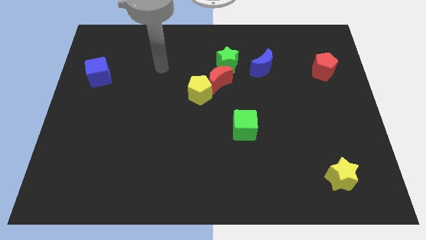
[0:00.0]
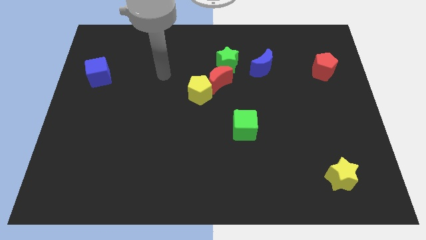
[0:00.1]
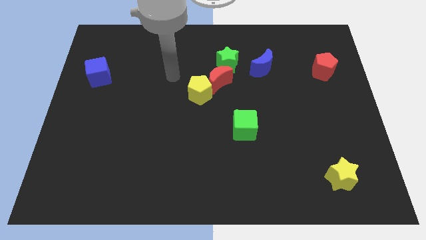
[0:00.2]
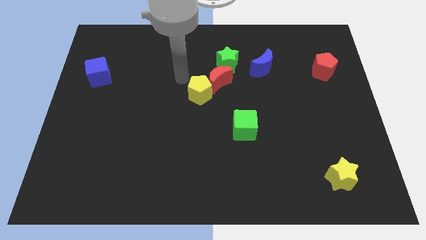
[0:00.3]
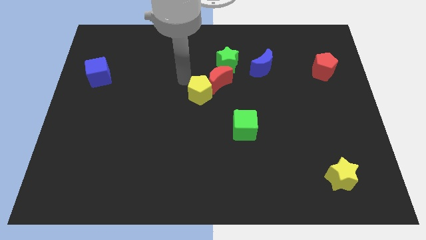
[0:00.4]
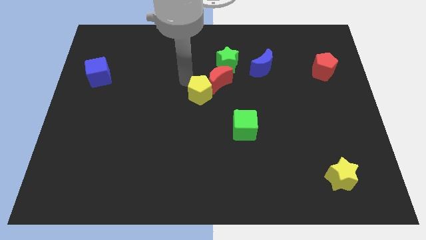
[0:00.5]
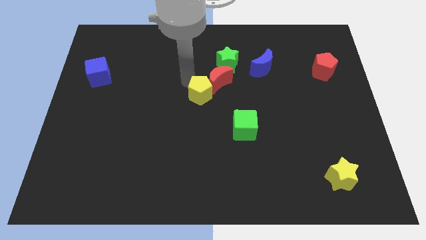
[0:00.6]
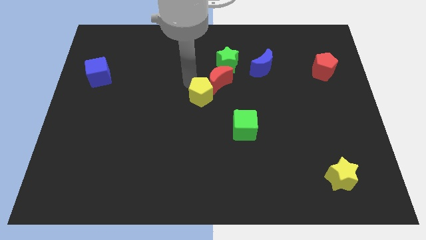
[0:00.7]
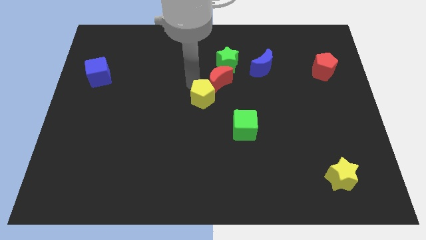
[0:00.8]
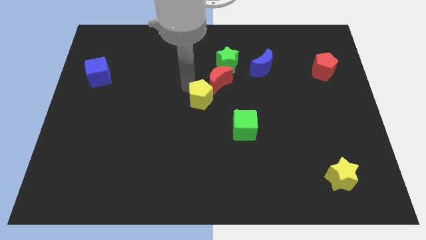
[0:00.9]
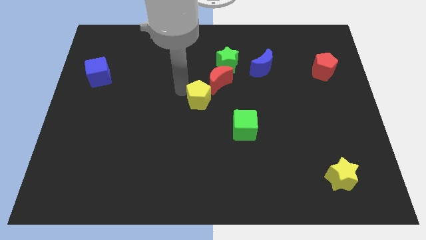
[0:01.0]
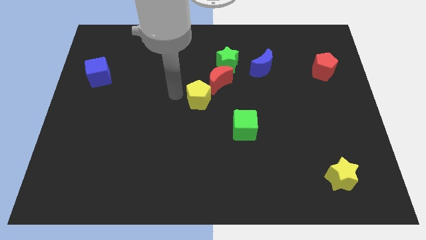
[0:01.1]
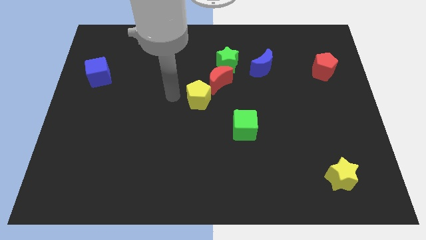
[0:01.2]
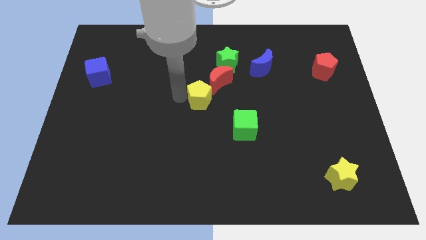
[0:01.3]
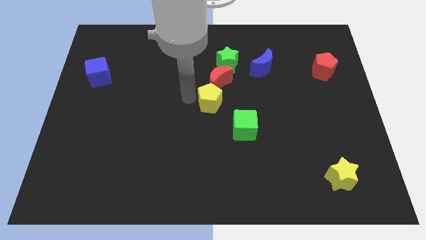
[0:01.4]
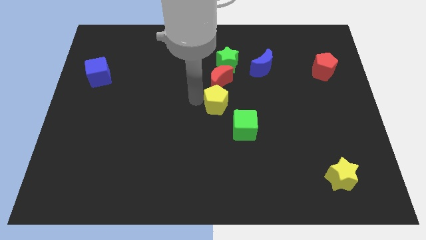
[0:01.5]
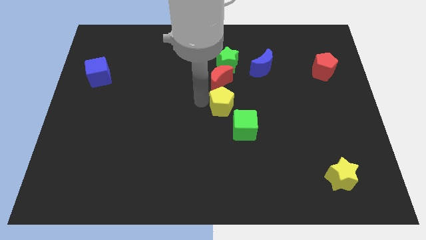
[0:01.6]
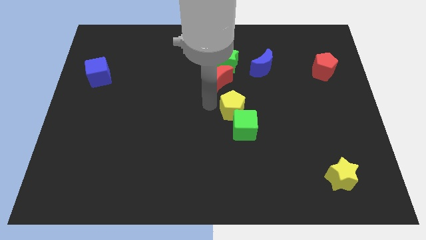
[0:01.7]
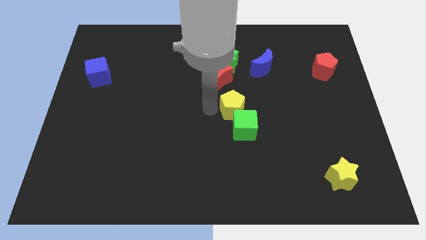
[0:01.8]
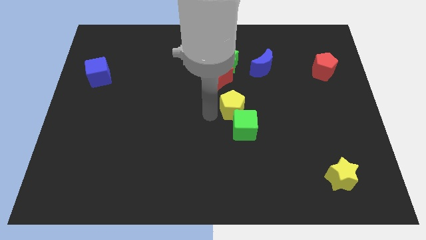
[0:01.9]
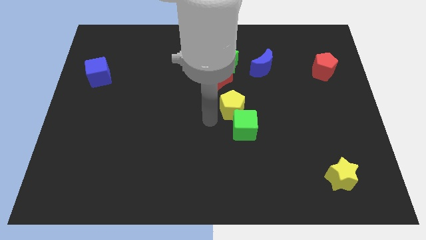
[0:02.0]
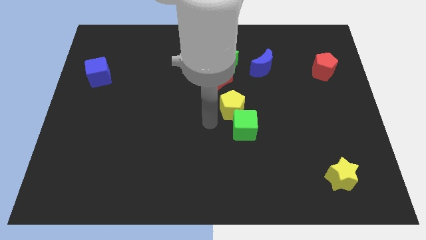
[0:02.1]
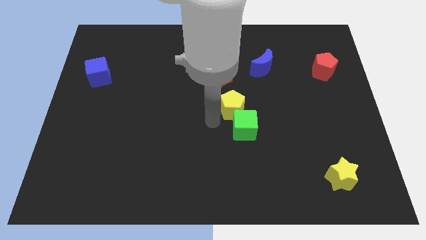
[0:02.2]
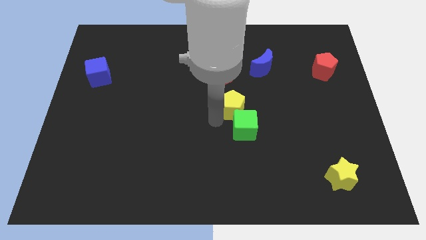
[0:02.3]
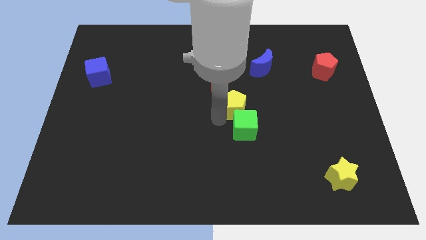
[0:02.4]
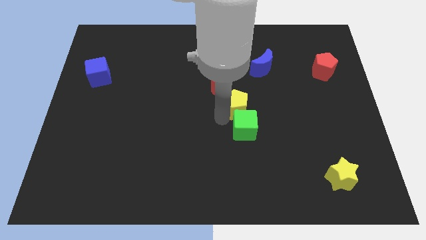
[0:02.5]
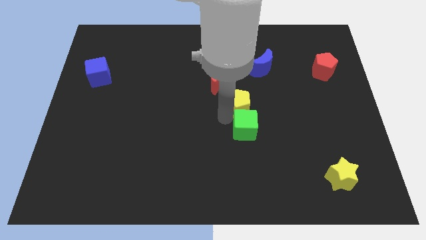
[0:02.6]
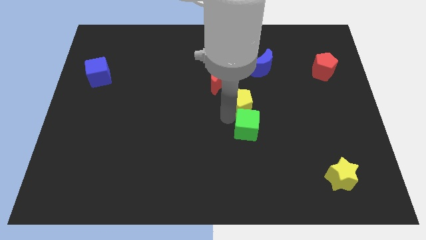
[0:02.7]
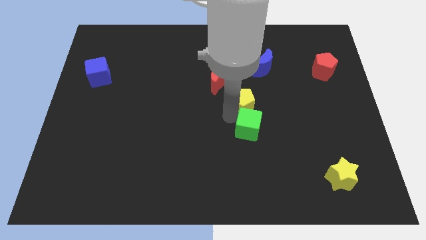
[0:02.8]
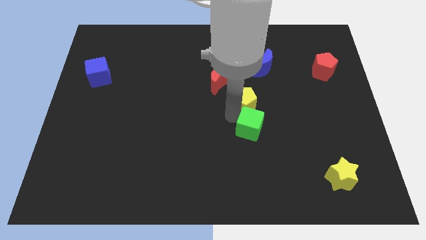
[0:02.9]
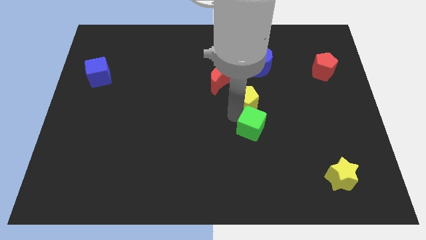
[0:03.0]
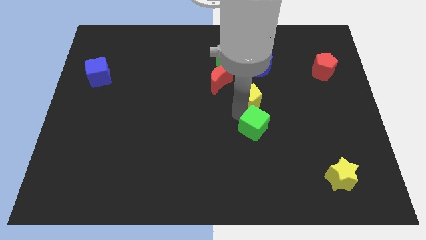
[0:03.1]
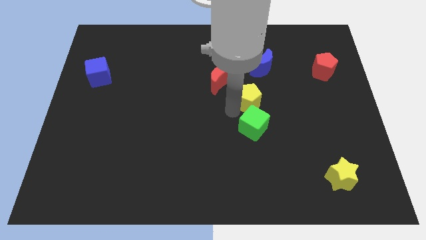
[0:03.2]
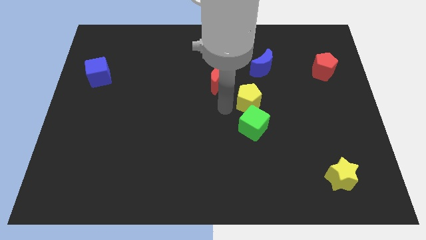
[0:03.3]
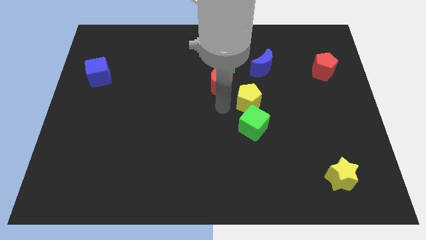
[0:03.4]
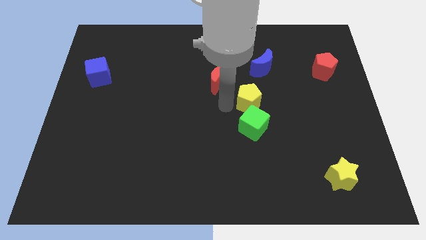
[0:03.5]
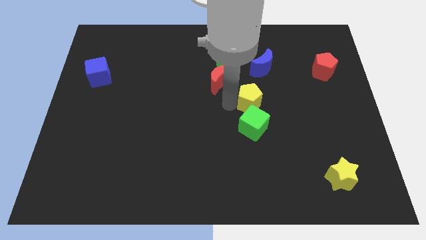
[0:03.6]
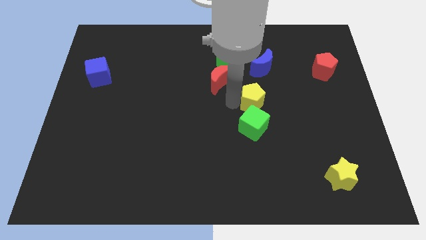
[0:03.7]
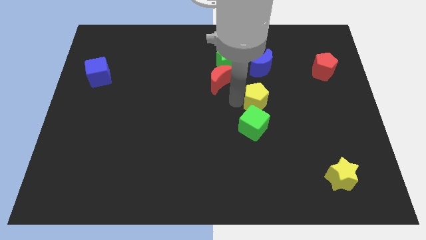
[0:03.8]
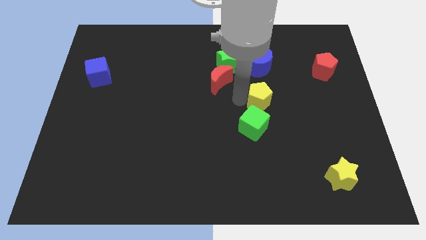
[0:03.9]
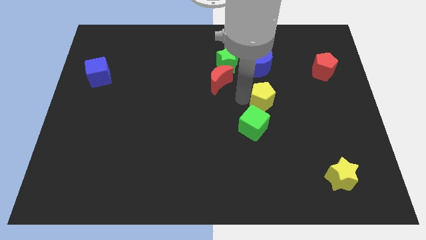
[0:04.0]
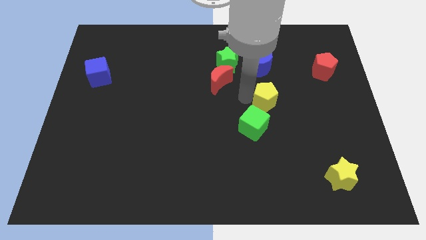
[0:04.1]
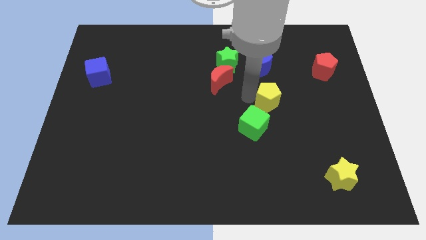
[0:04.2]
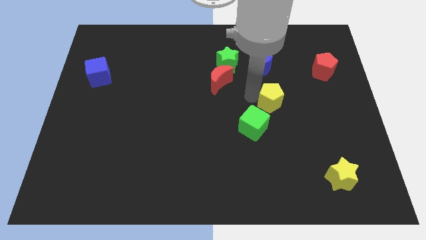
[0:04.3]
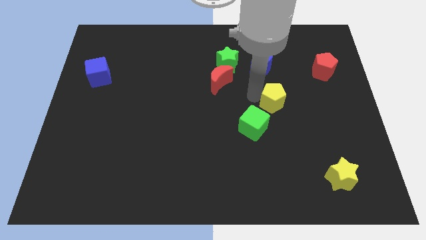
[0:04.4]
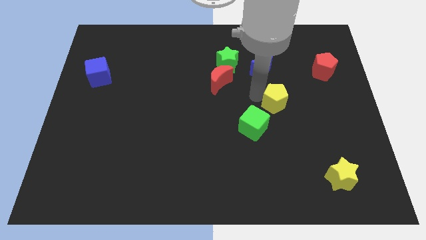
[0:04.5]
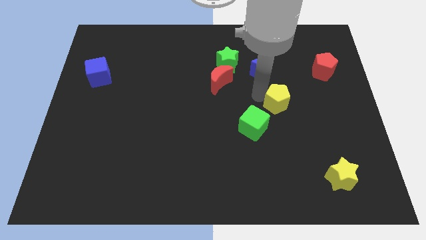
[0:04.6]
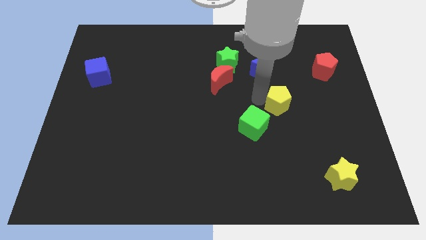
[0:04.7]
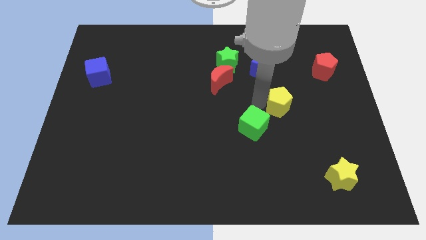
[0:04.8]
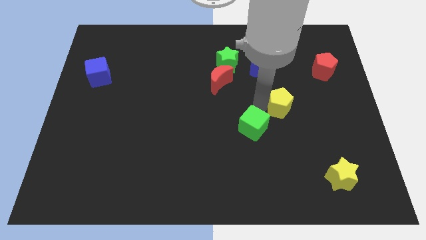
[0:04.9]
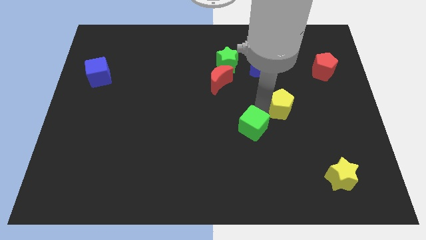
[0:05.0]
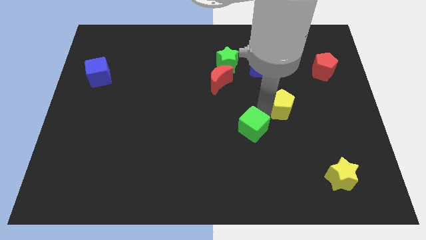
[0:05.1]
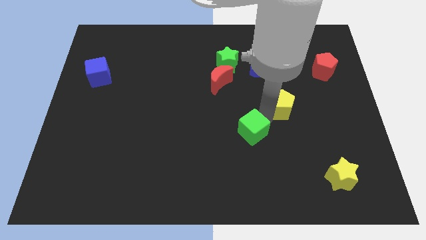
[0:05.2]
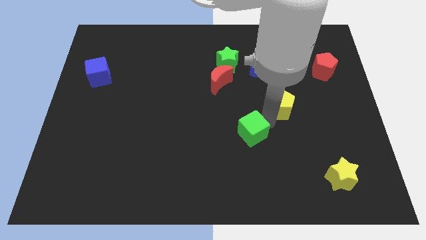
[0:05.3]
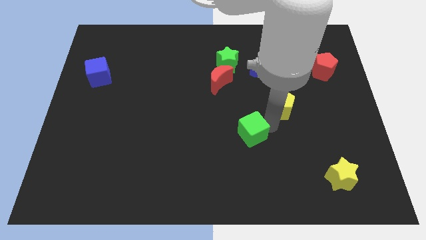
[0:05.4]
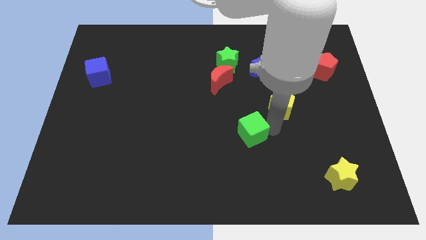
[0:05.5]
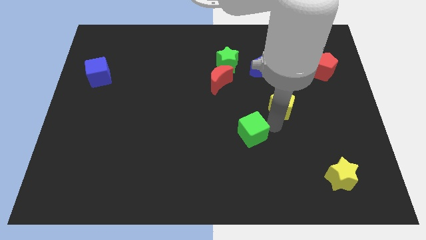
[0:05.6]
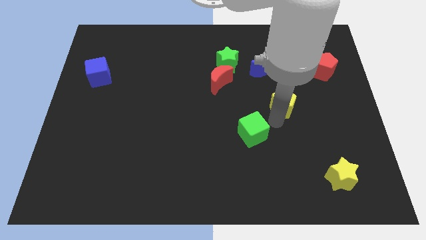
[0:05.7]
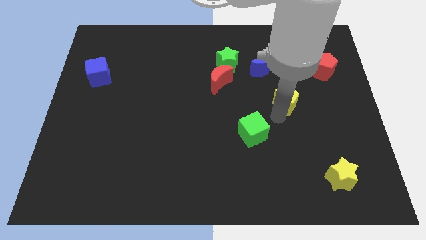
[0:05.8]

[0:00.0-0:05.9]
push the yellow pentagon right

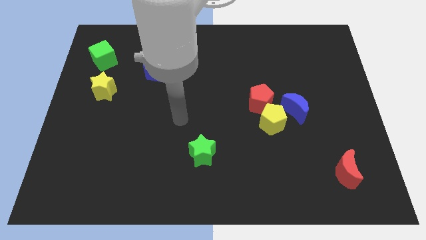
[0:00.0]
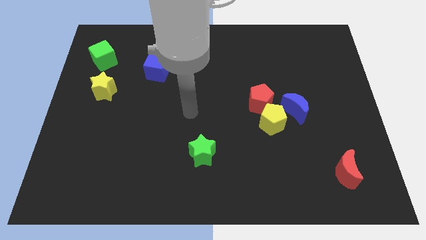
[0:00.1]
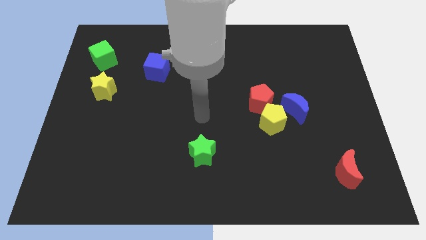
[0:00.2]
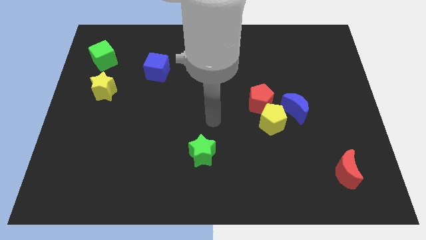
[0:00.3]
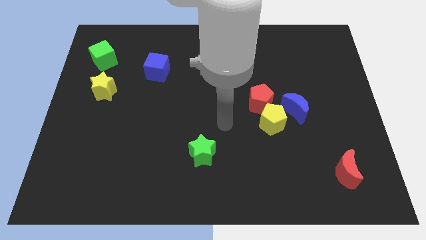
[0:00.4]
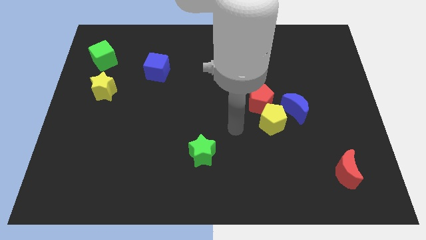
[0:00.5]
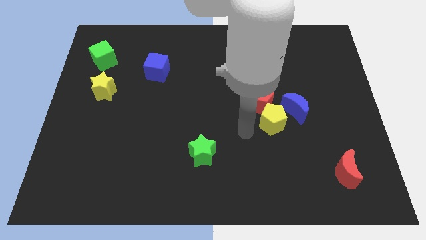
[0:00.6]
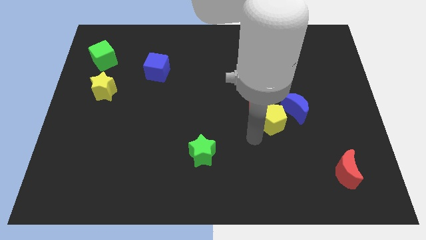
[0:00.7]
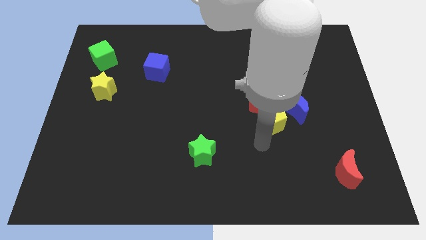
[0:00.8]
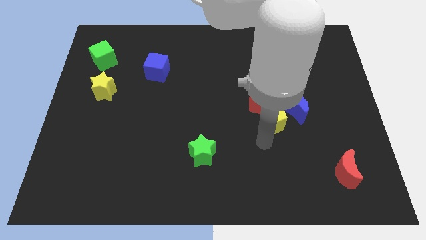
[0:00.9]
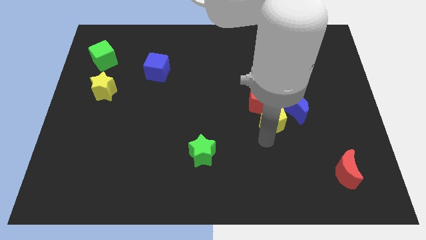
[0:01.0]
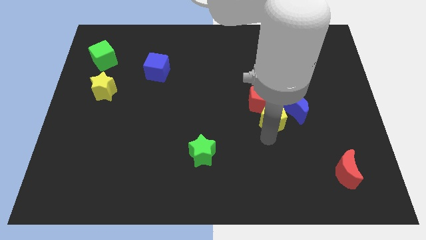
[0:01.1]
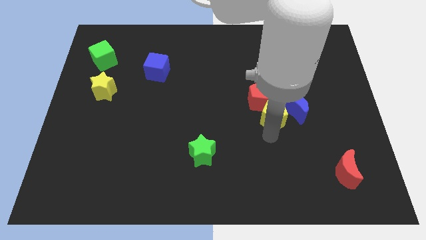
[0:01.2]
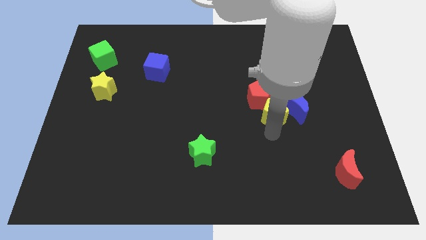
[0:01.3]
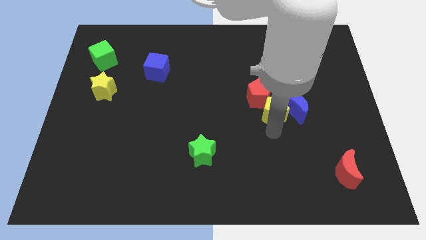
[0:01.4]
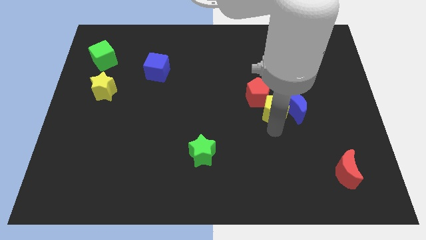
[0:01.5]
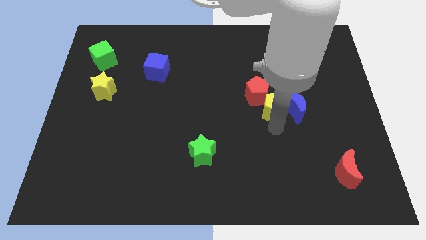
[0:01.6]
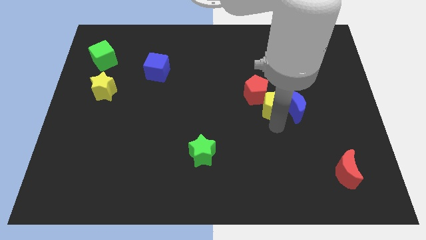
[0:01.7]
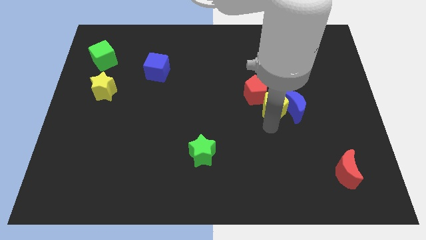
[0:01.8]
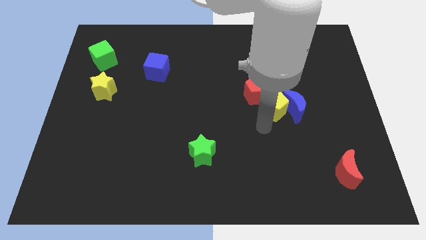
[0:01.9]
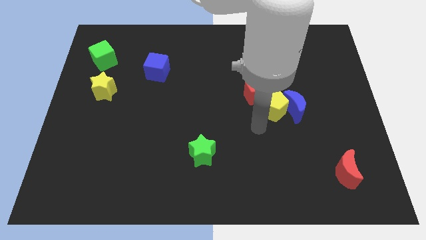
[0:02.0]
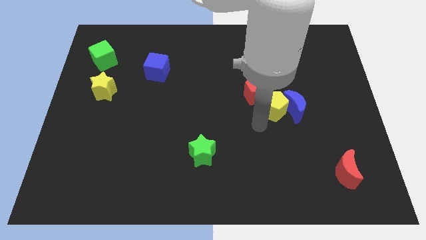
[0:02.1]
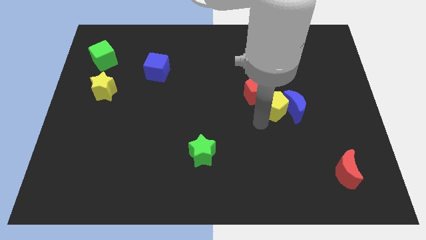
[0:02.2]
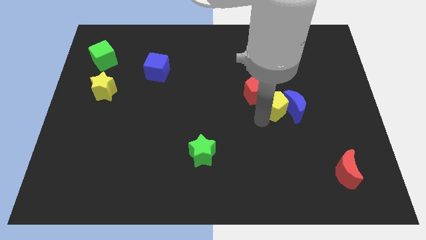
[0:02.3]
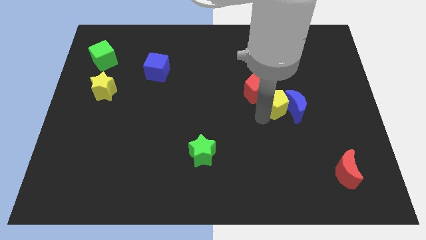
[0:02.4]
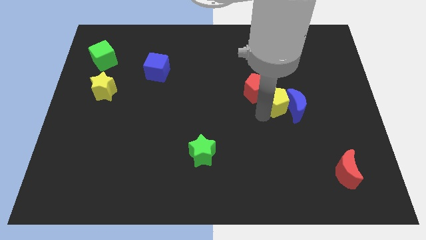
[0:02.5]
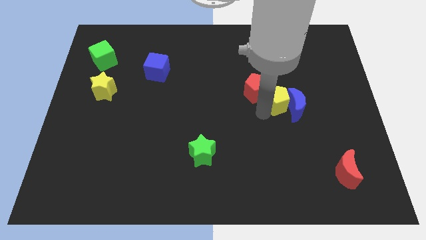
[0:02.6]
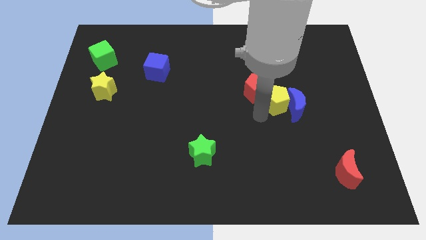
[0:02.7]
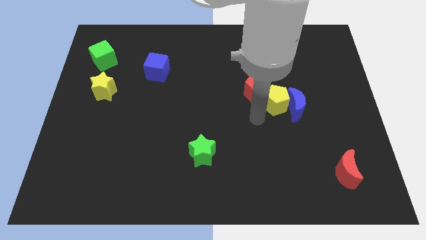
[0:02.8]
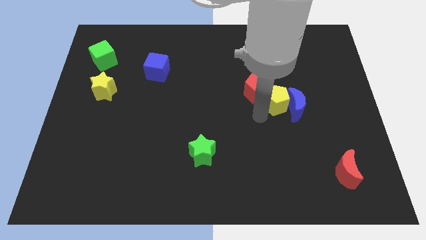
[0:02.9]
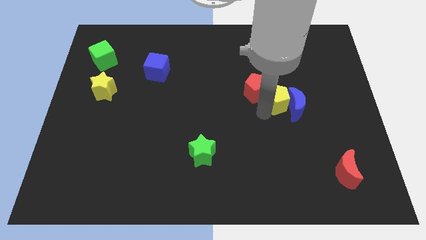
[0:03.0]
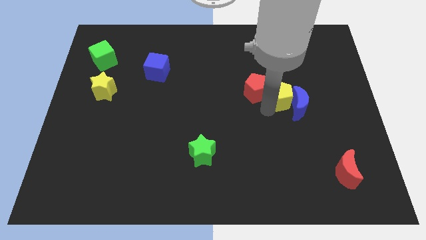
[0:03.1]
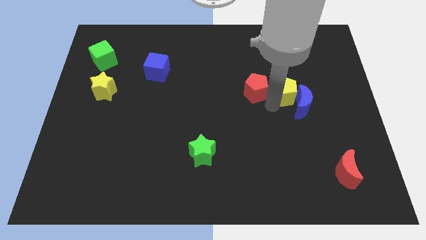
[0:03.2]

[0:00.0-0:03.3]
slide the yellow pentagon a little bit upwards and right diagonally
